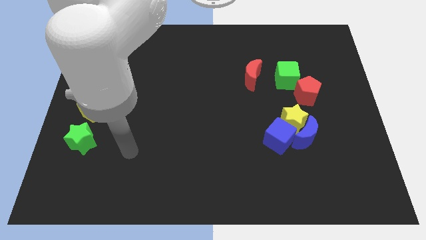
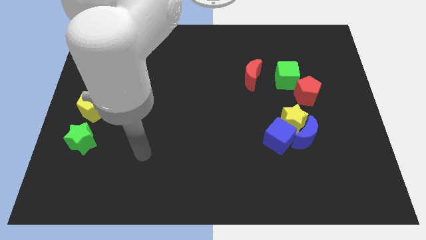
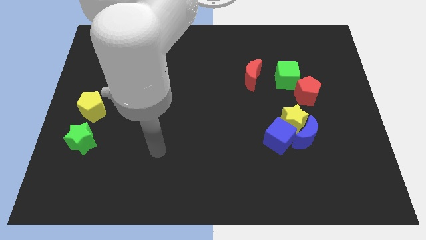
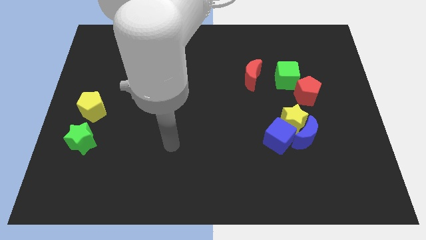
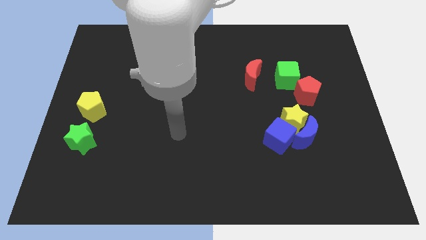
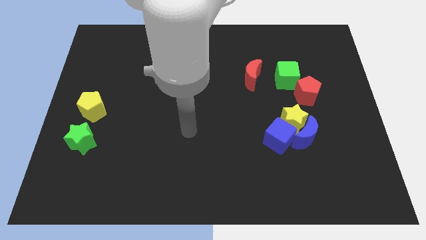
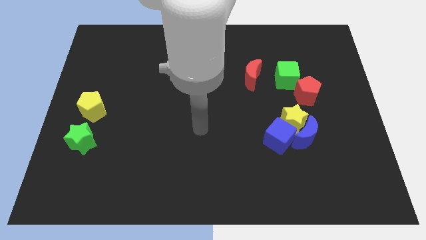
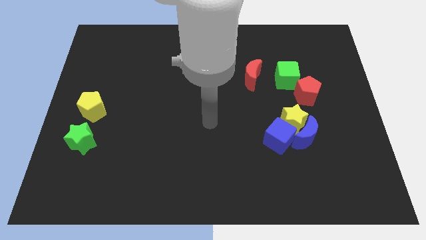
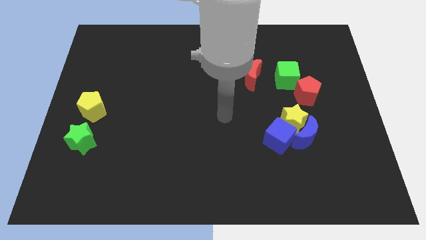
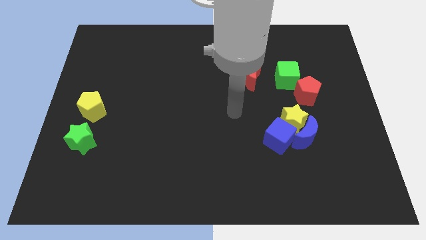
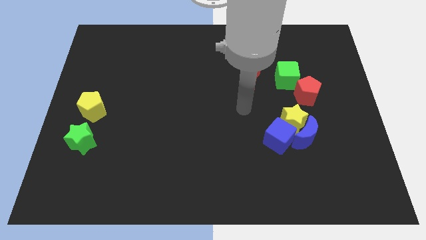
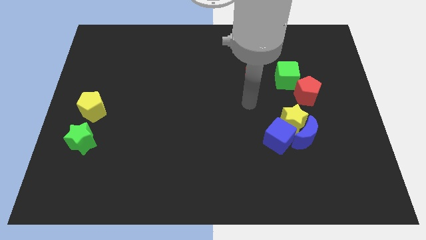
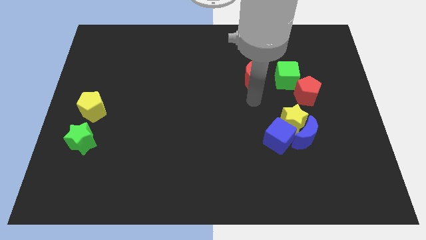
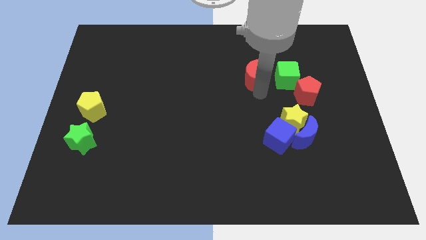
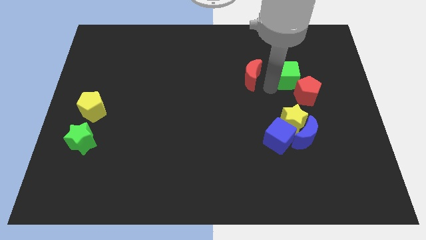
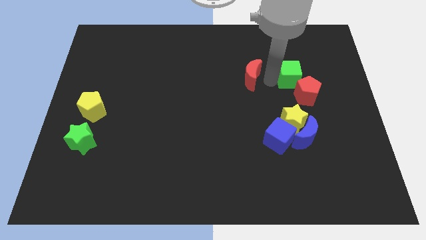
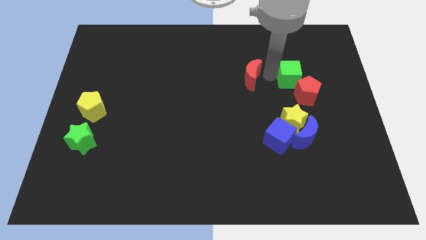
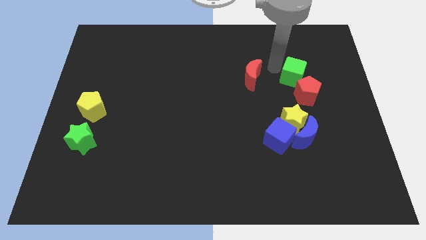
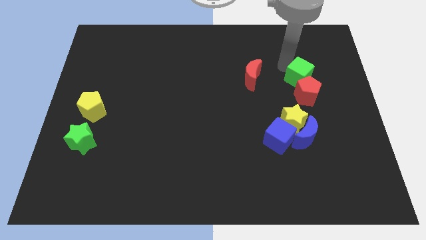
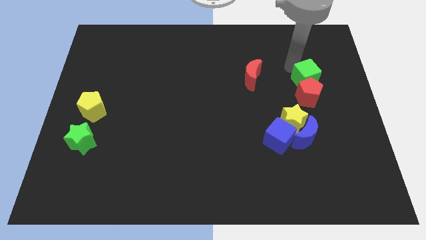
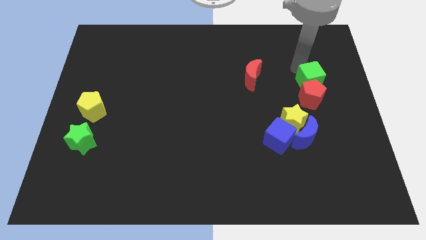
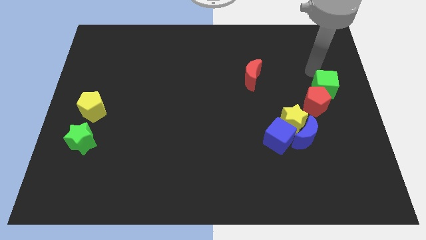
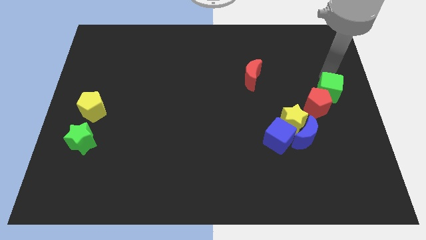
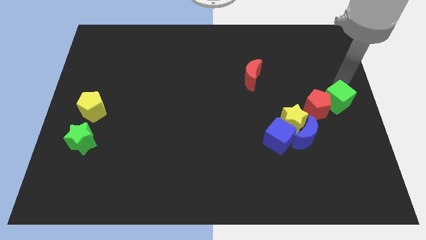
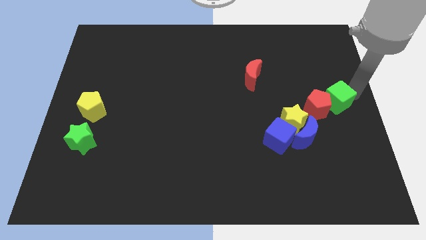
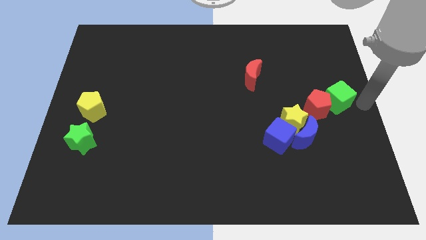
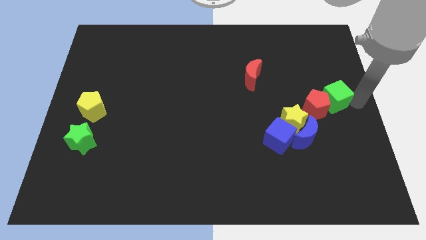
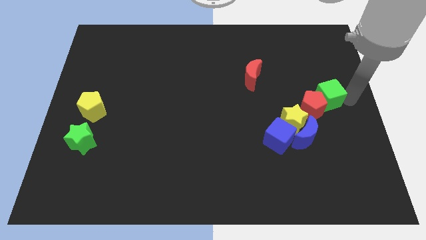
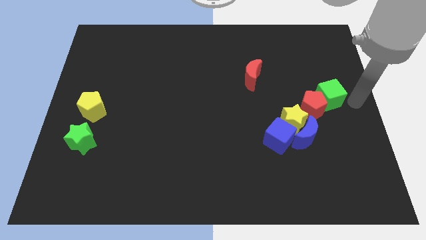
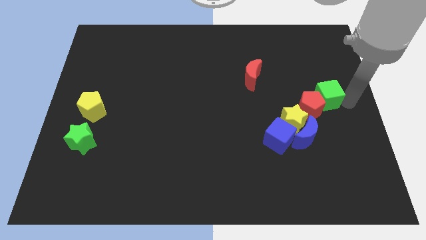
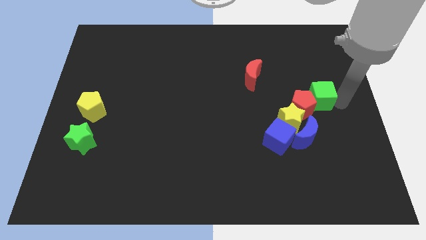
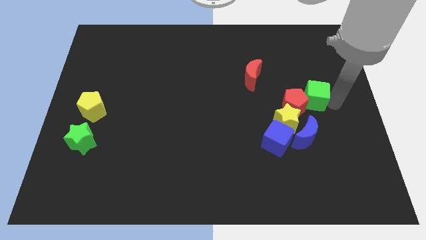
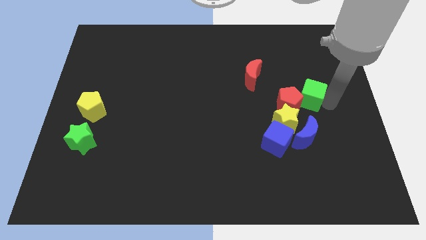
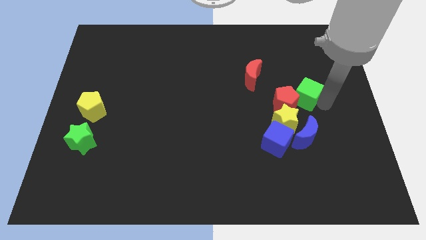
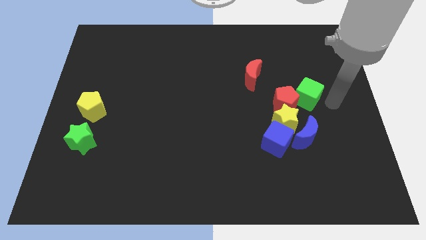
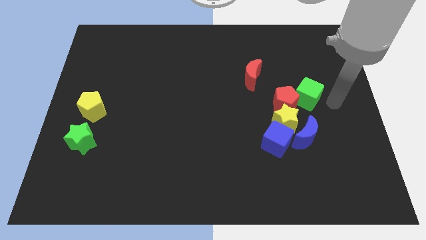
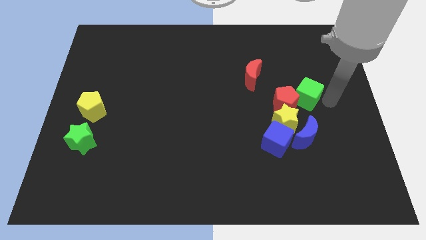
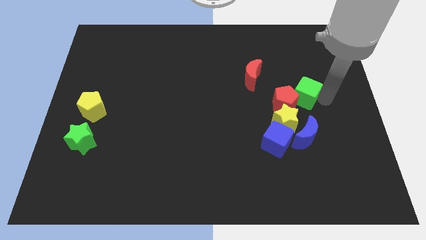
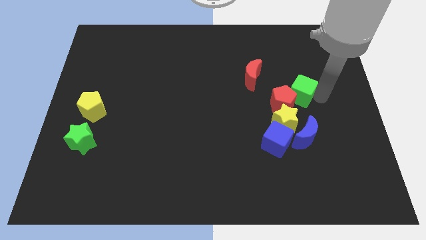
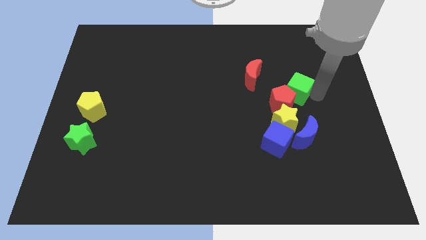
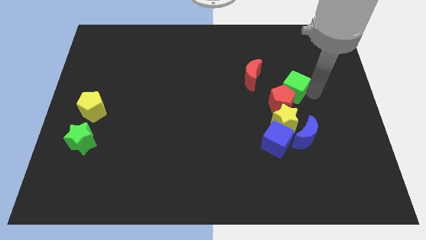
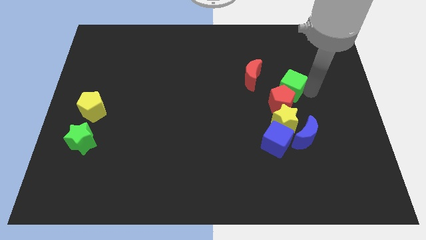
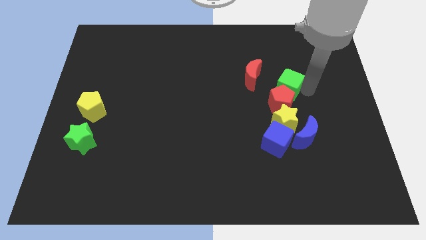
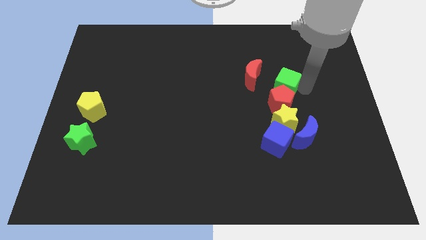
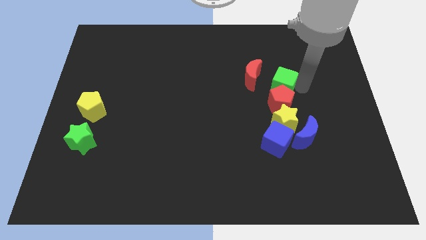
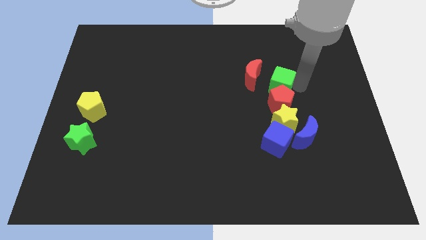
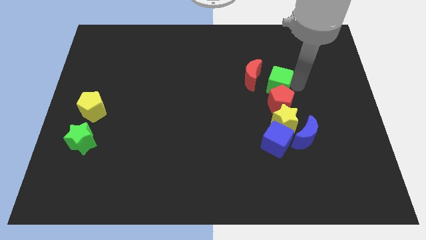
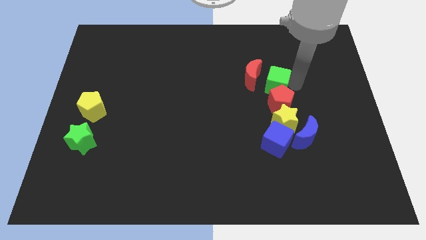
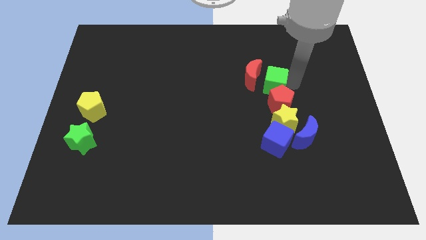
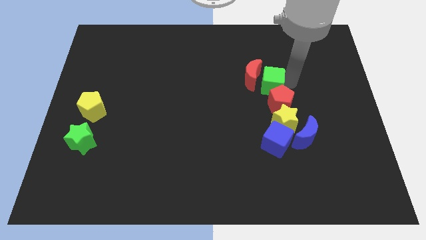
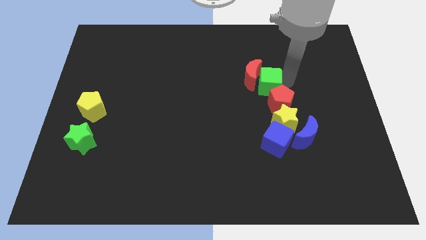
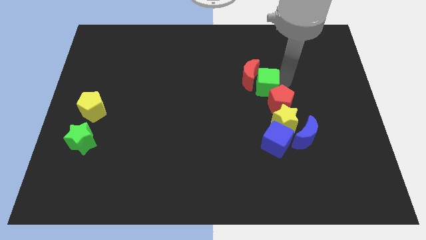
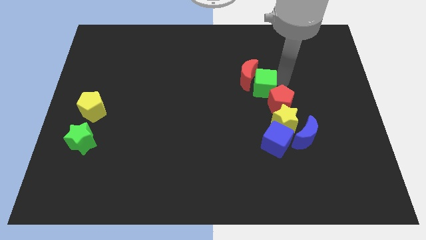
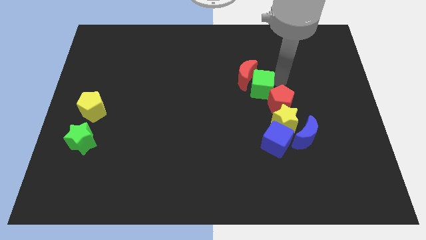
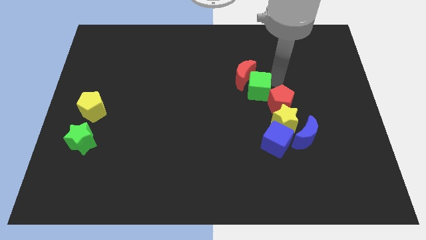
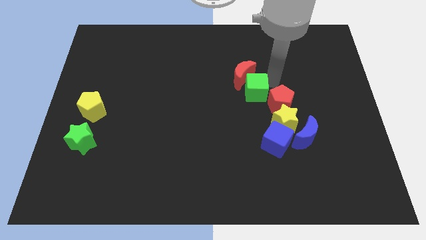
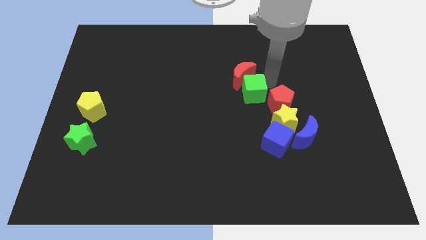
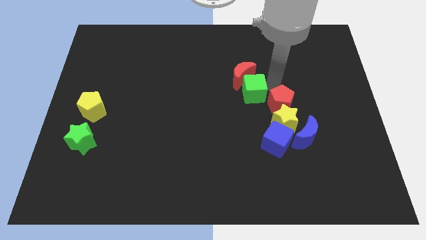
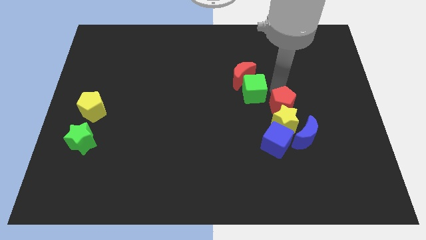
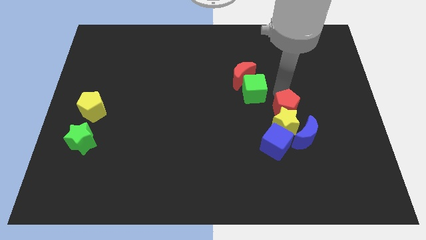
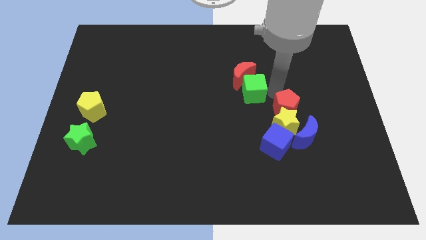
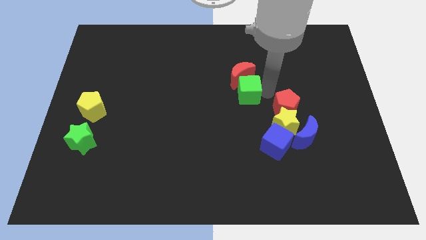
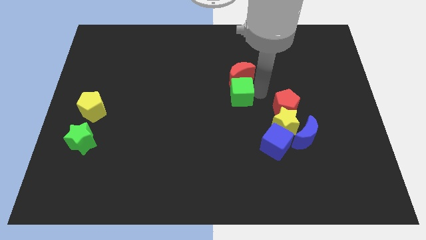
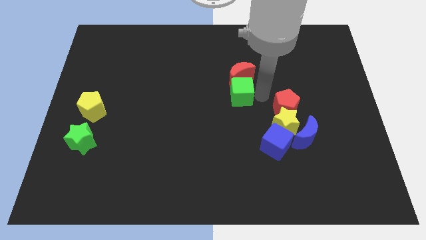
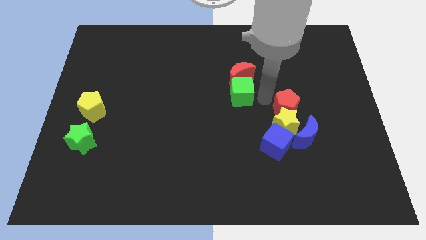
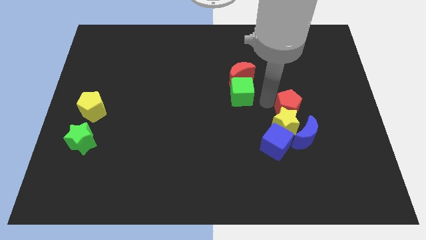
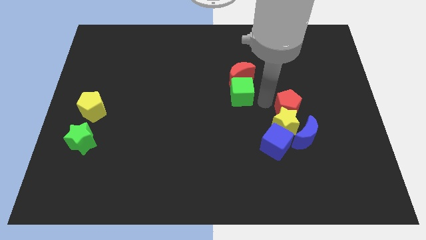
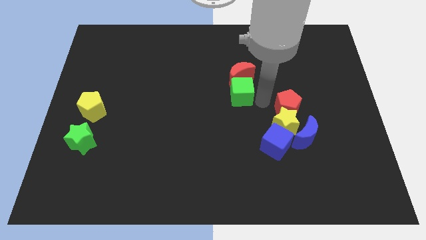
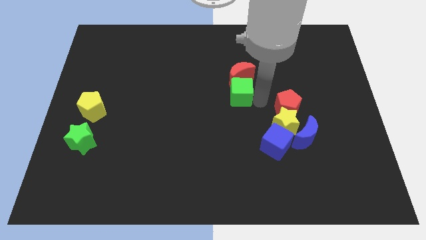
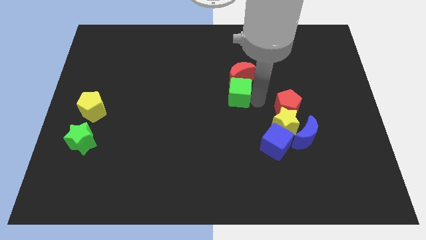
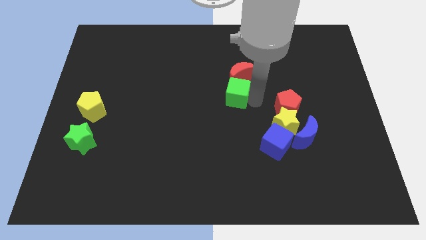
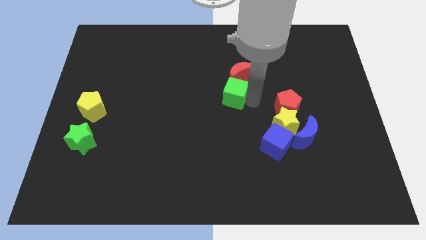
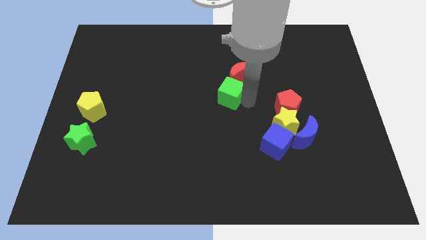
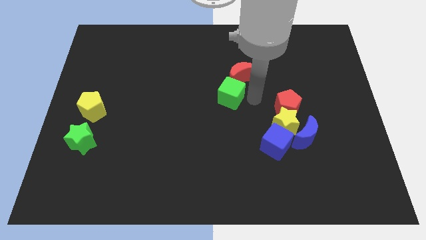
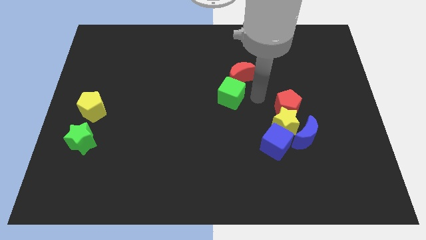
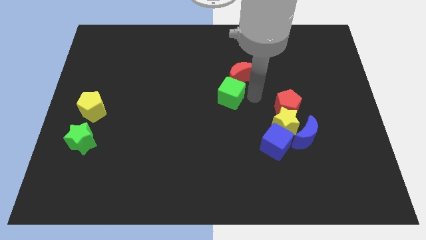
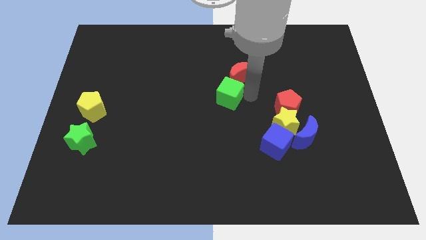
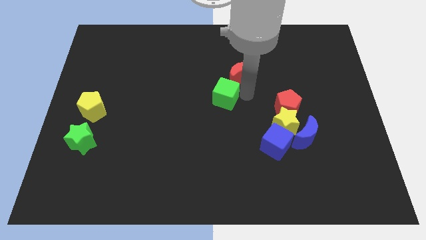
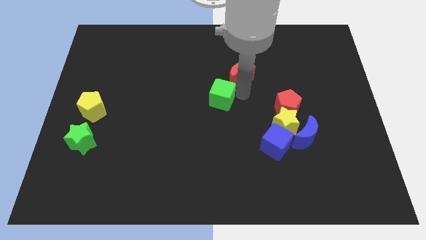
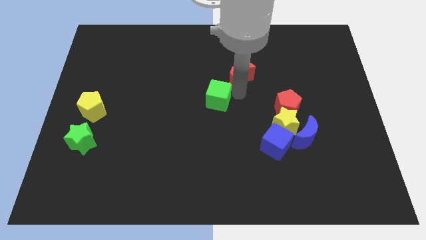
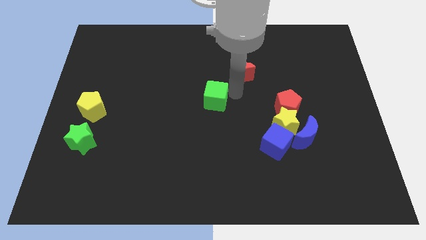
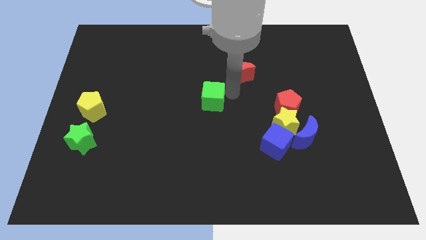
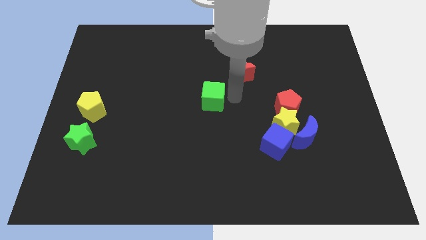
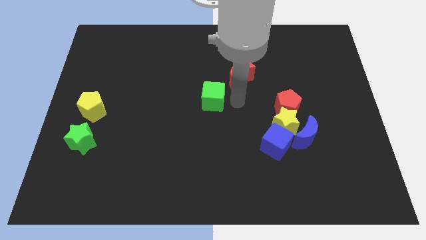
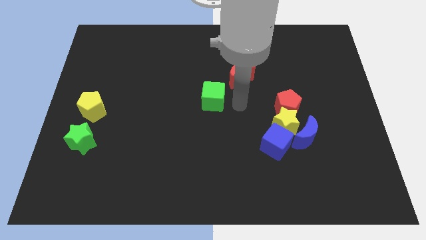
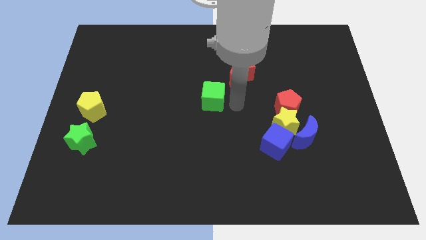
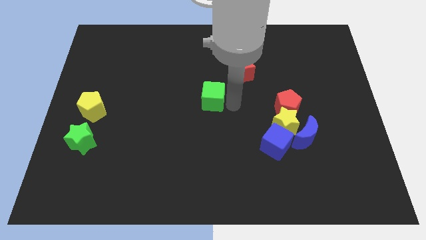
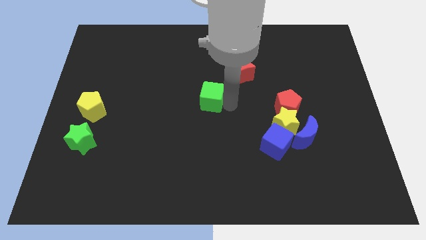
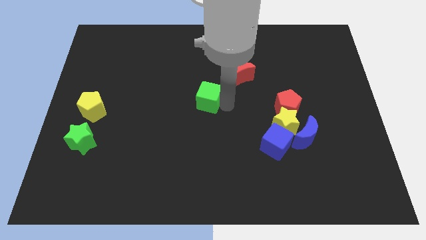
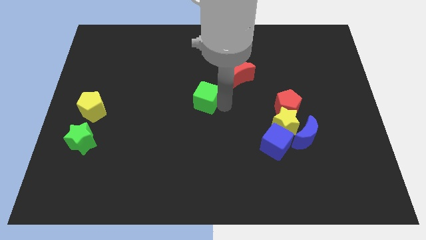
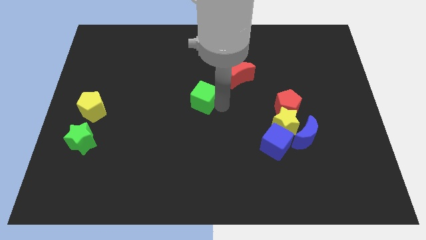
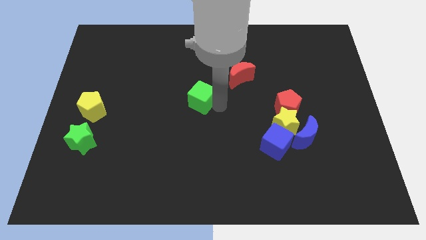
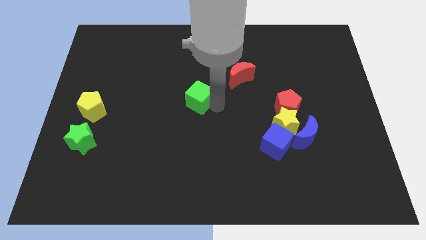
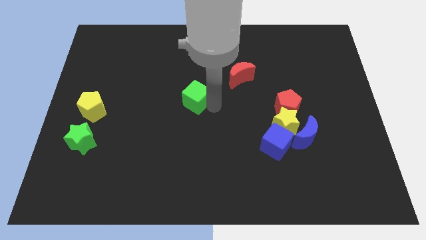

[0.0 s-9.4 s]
push the green cube left
